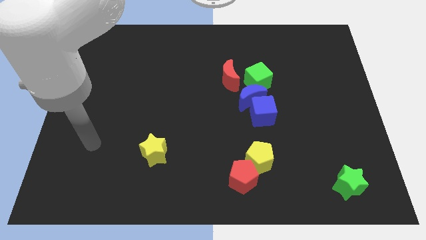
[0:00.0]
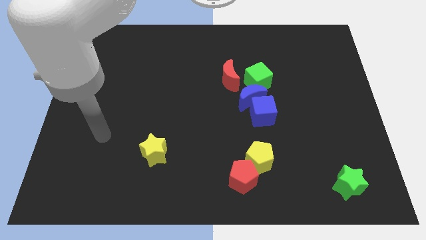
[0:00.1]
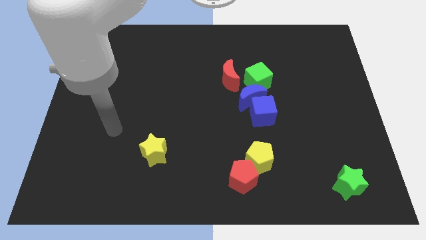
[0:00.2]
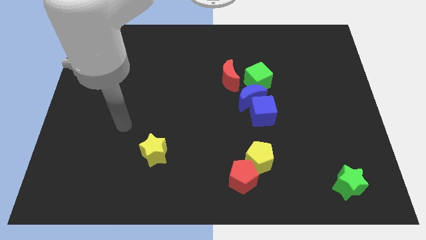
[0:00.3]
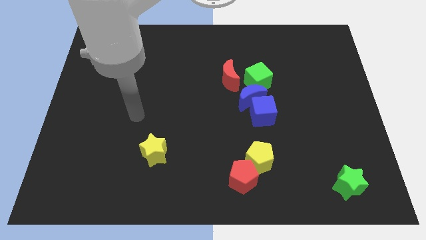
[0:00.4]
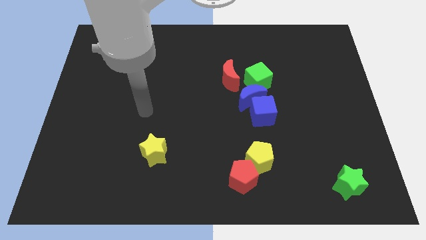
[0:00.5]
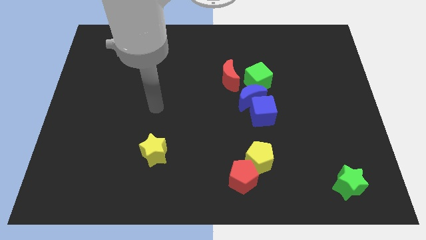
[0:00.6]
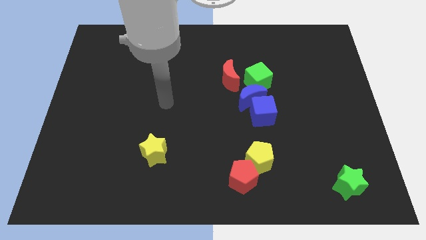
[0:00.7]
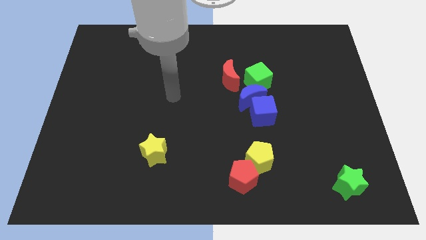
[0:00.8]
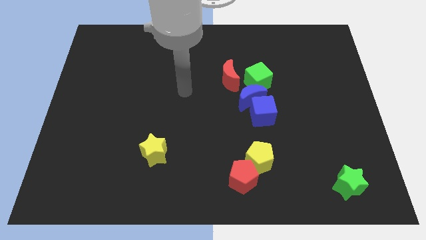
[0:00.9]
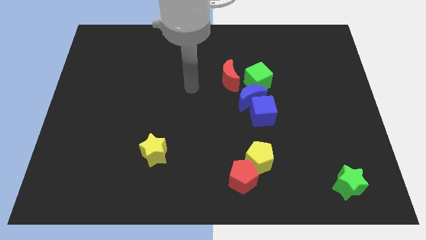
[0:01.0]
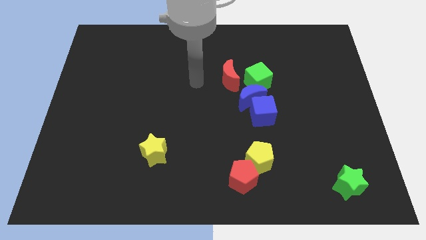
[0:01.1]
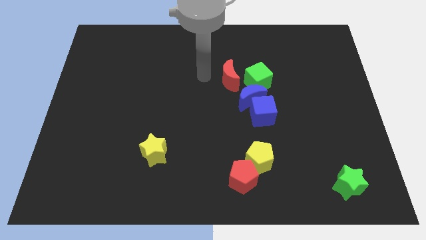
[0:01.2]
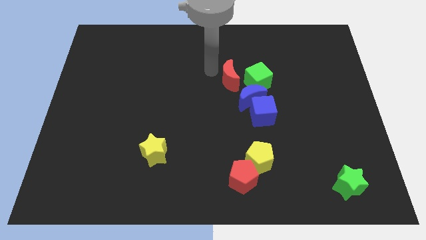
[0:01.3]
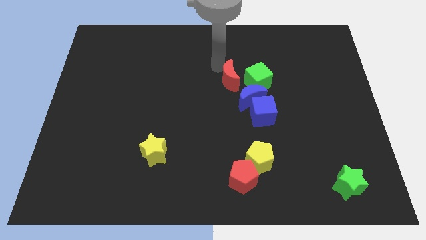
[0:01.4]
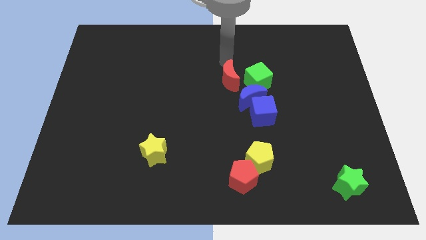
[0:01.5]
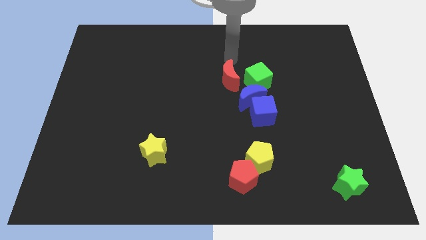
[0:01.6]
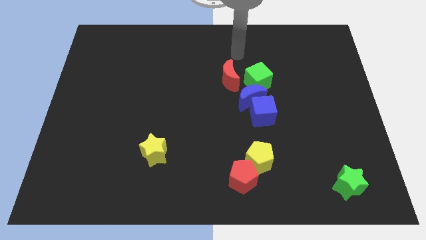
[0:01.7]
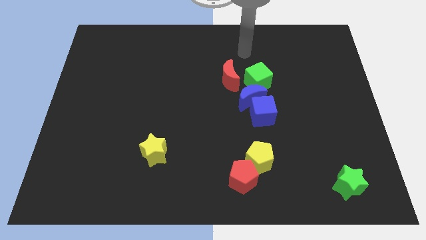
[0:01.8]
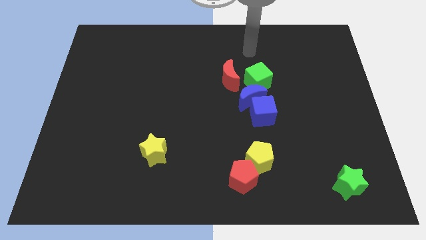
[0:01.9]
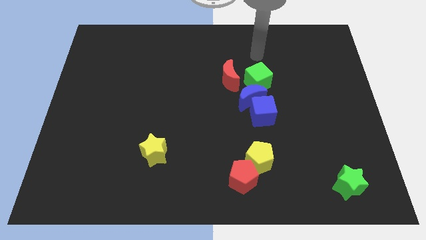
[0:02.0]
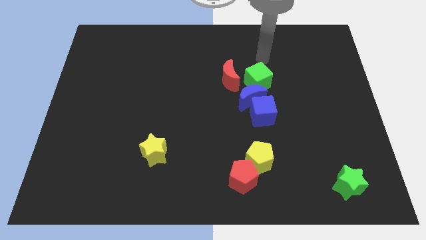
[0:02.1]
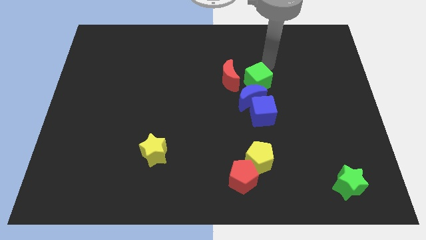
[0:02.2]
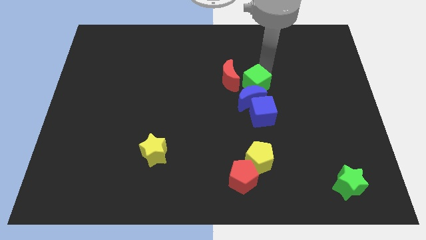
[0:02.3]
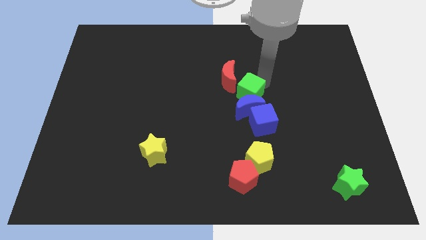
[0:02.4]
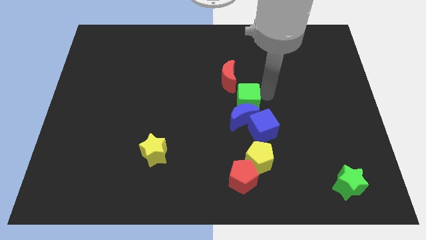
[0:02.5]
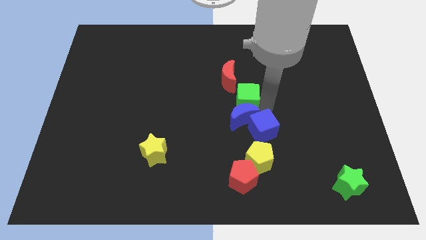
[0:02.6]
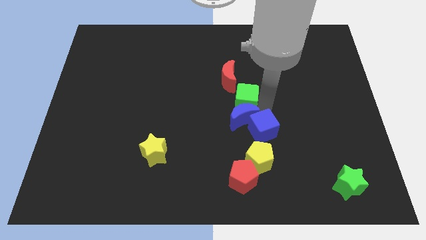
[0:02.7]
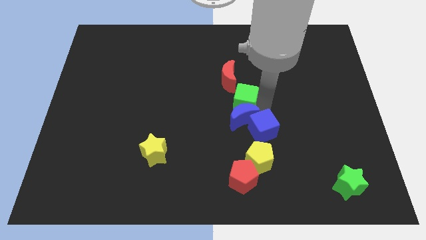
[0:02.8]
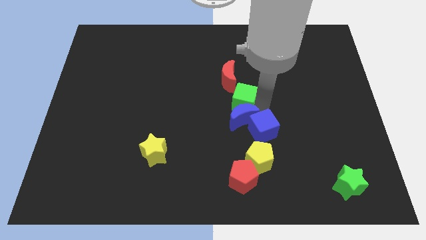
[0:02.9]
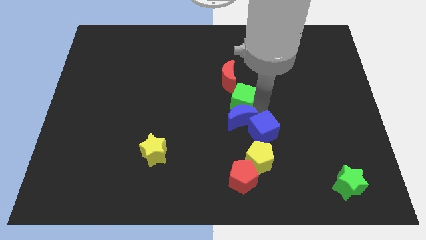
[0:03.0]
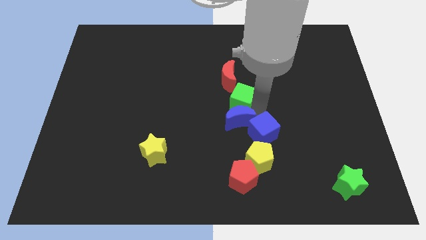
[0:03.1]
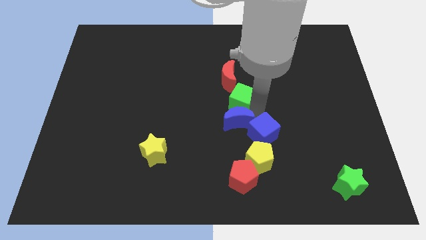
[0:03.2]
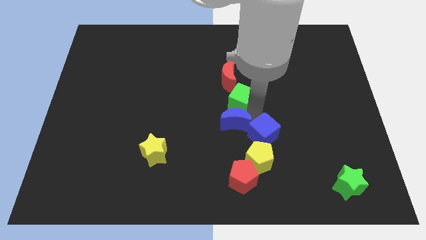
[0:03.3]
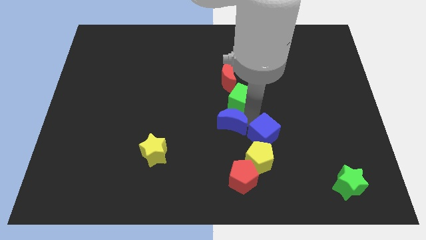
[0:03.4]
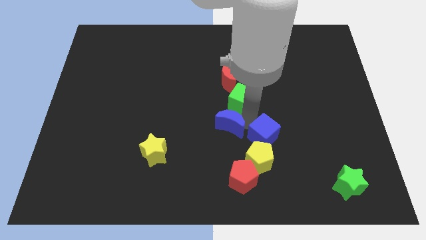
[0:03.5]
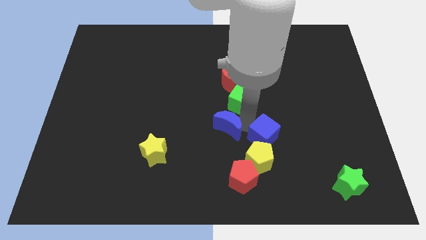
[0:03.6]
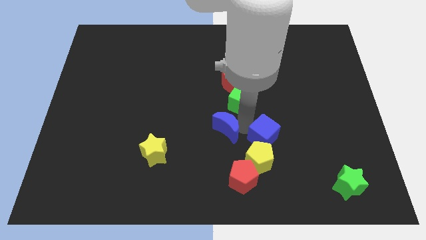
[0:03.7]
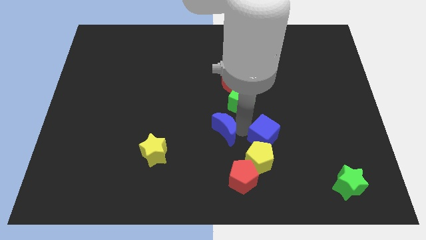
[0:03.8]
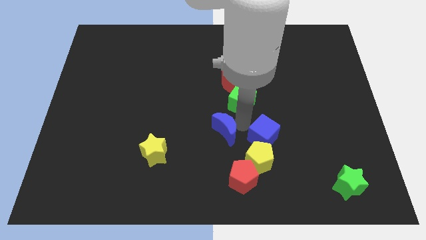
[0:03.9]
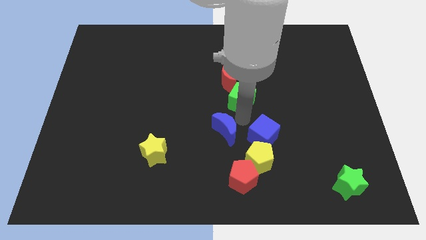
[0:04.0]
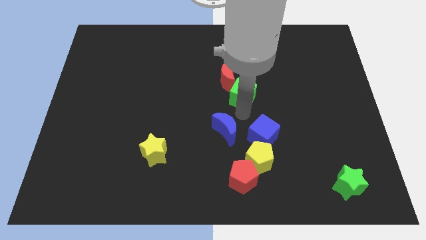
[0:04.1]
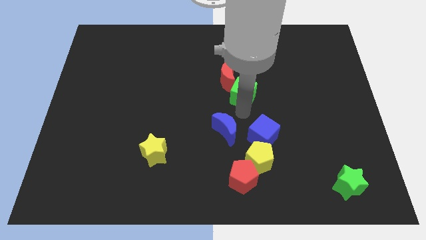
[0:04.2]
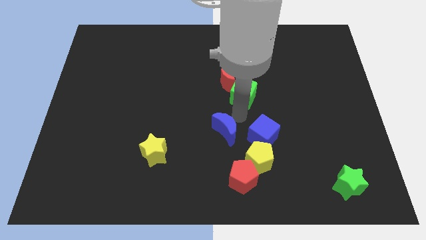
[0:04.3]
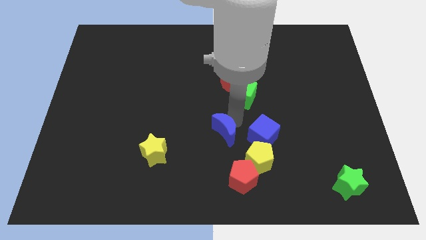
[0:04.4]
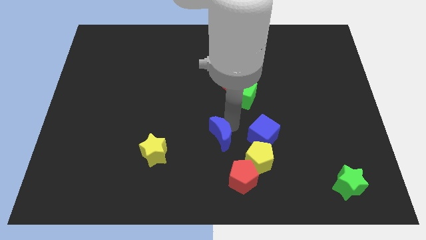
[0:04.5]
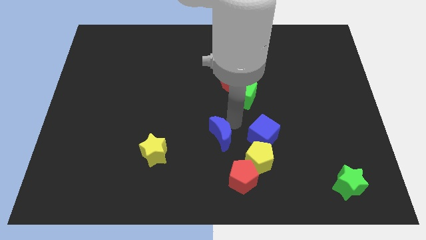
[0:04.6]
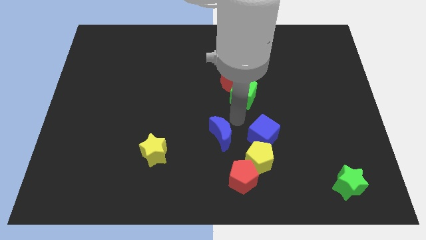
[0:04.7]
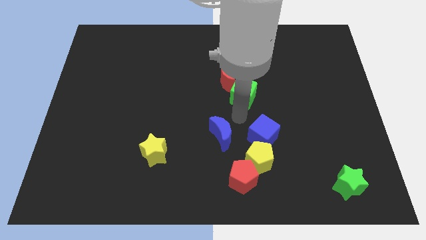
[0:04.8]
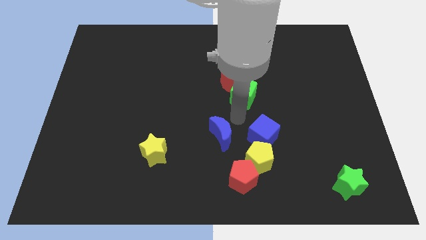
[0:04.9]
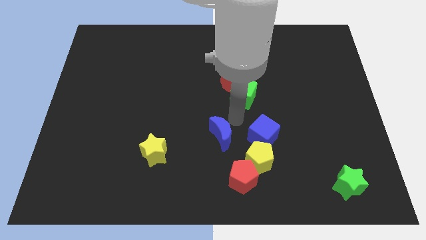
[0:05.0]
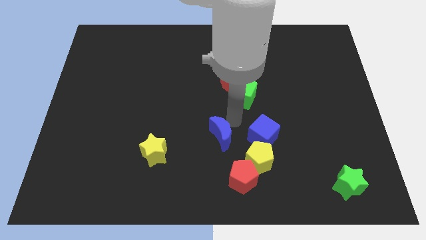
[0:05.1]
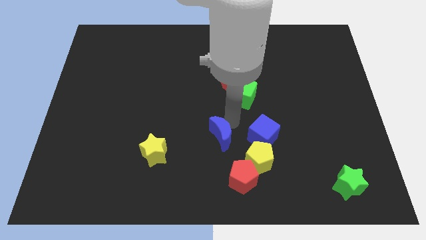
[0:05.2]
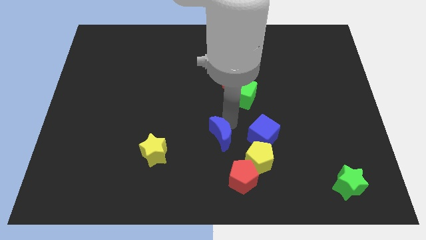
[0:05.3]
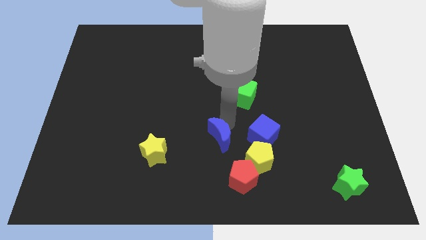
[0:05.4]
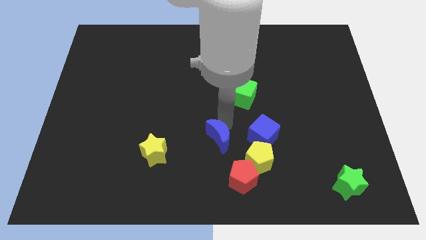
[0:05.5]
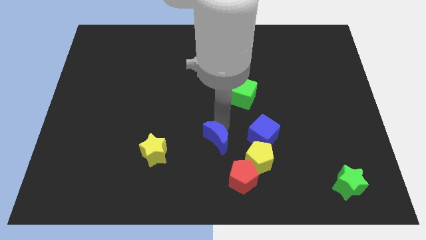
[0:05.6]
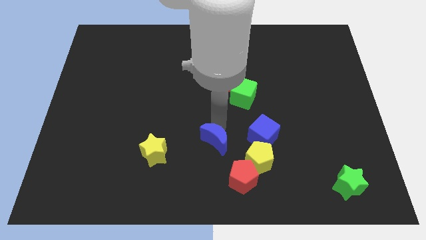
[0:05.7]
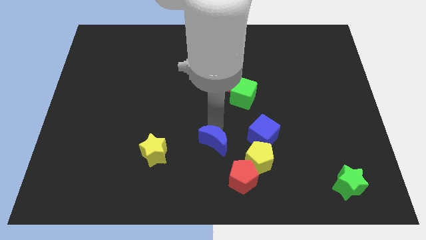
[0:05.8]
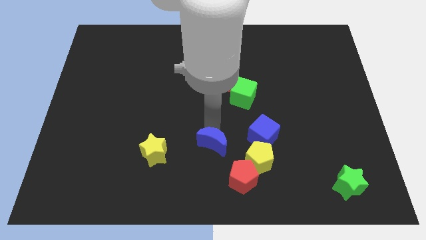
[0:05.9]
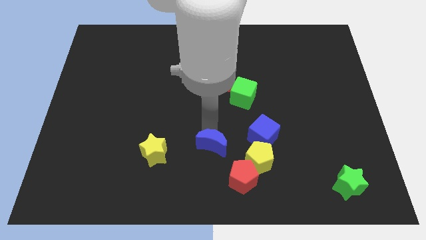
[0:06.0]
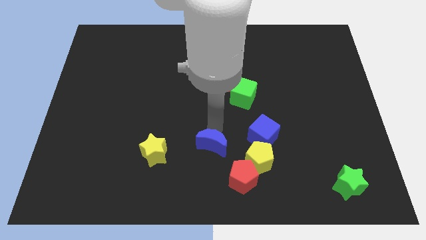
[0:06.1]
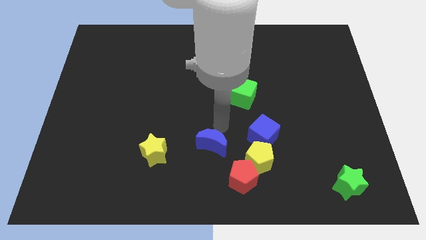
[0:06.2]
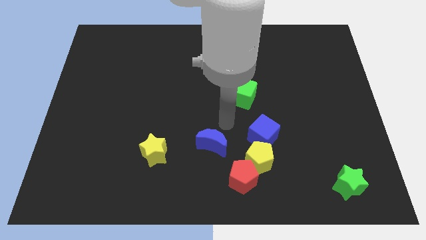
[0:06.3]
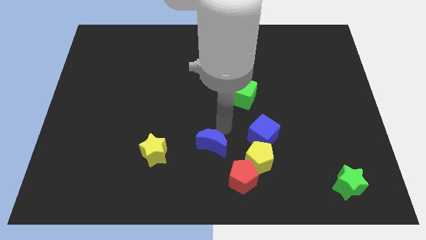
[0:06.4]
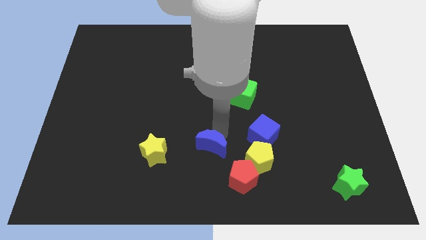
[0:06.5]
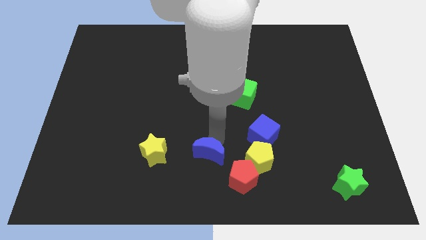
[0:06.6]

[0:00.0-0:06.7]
put the blue moon to the bottom

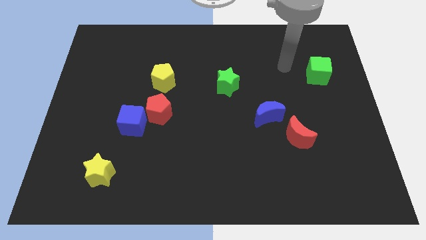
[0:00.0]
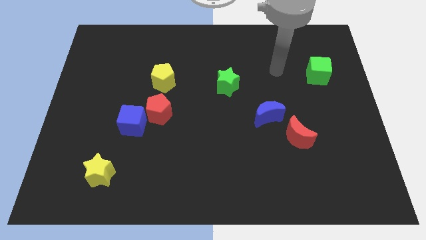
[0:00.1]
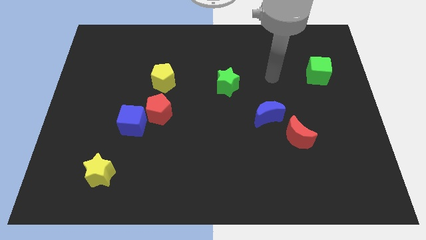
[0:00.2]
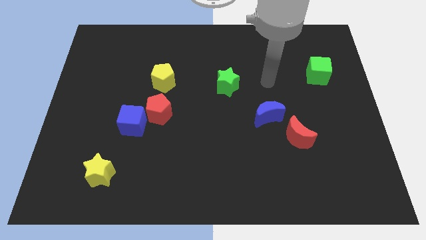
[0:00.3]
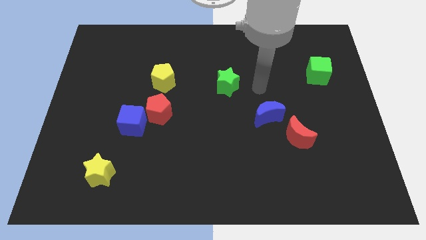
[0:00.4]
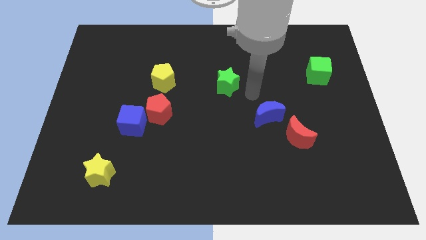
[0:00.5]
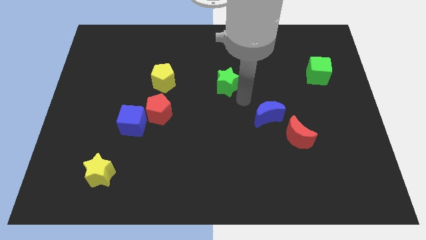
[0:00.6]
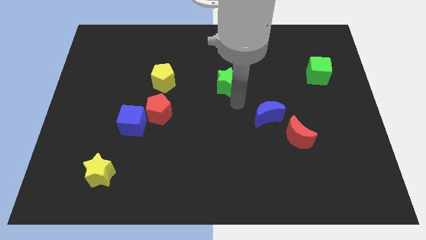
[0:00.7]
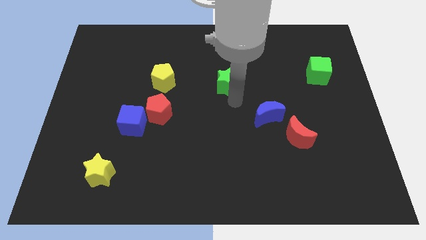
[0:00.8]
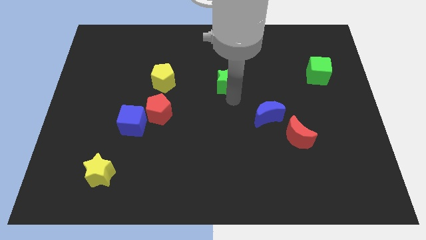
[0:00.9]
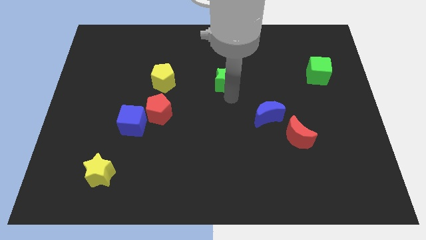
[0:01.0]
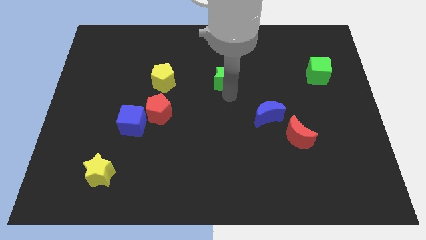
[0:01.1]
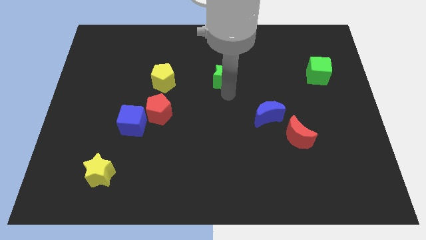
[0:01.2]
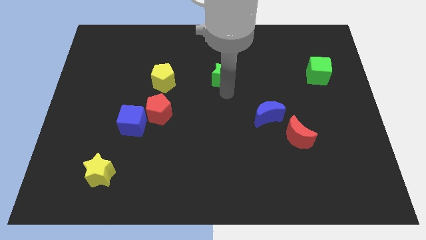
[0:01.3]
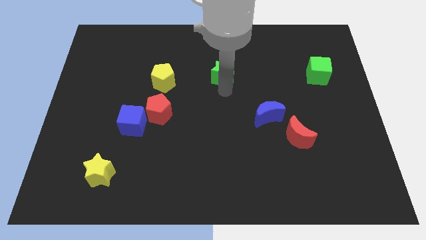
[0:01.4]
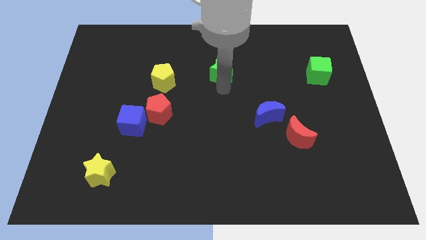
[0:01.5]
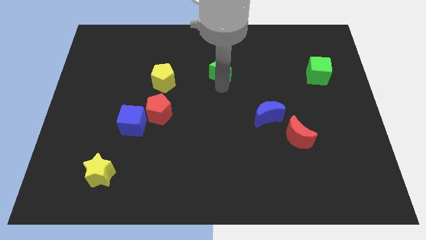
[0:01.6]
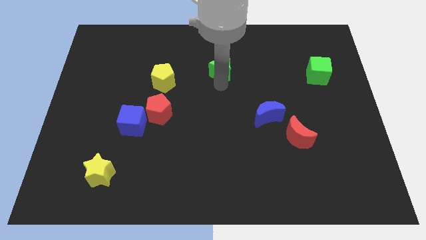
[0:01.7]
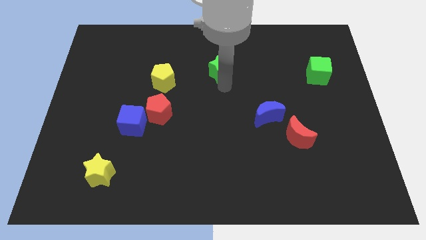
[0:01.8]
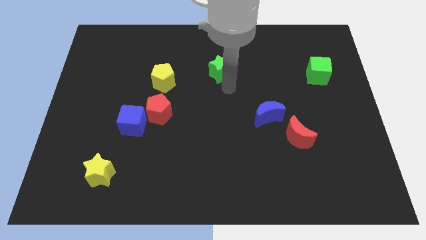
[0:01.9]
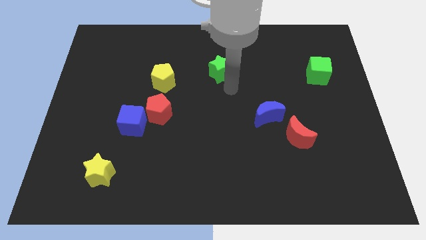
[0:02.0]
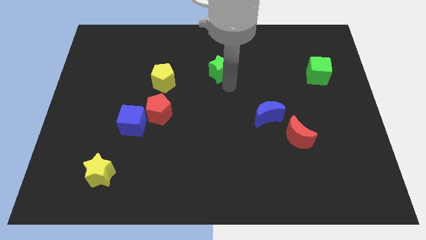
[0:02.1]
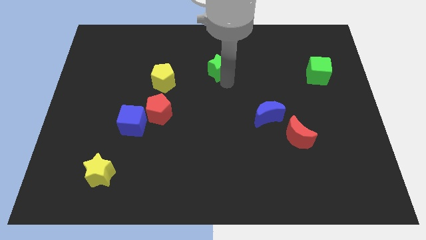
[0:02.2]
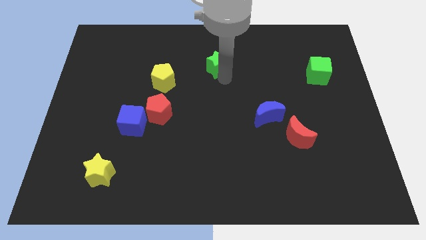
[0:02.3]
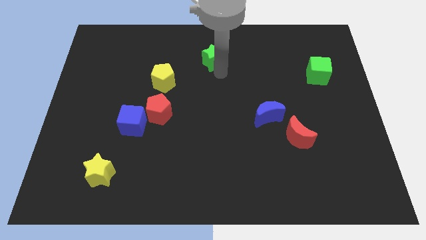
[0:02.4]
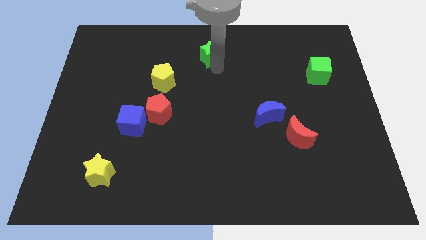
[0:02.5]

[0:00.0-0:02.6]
put the green star to the towards your base
